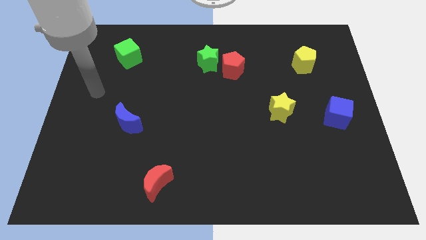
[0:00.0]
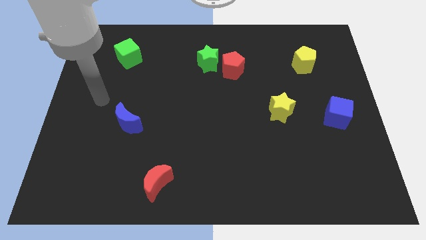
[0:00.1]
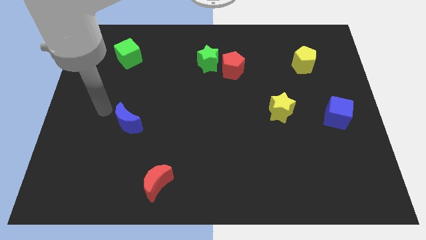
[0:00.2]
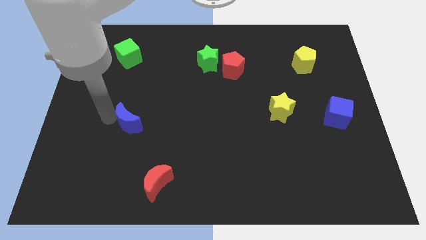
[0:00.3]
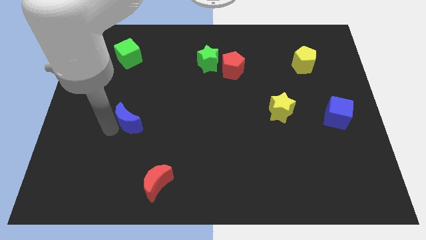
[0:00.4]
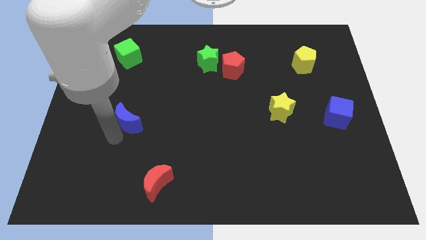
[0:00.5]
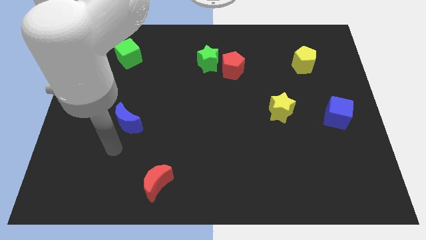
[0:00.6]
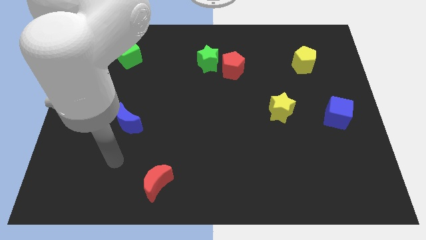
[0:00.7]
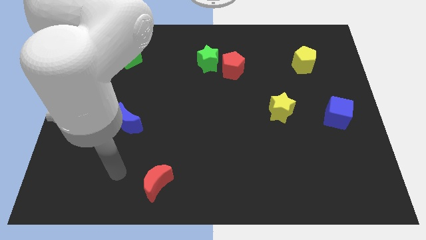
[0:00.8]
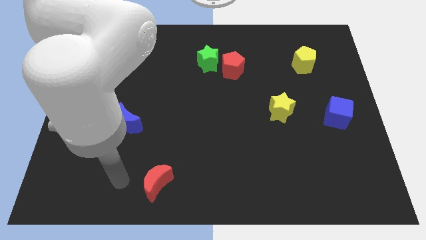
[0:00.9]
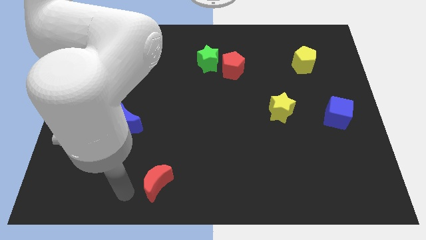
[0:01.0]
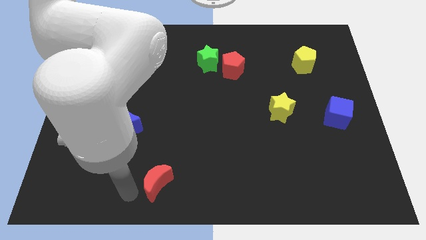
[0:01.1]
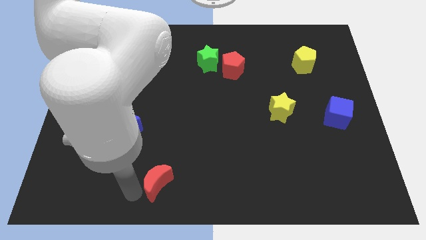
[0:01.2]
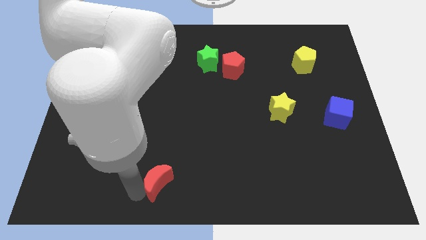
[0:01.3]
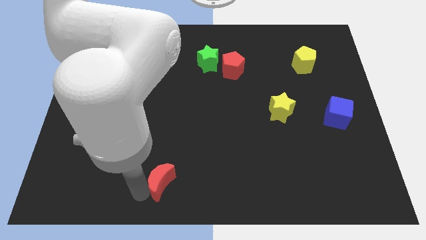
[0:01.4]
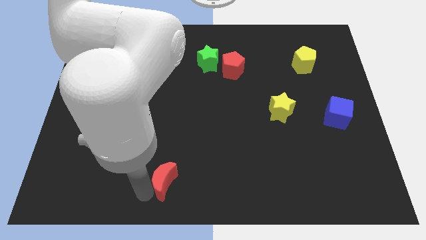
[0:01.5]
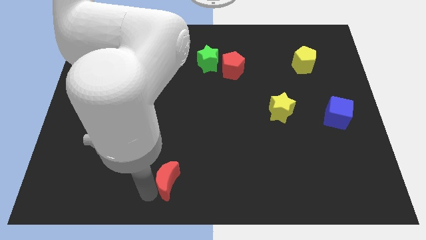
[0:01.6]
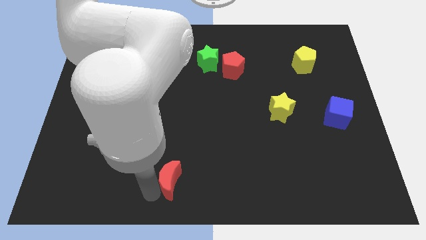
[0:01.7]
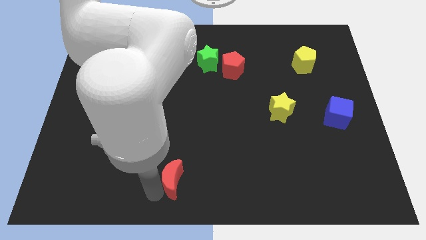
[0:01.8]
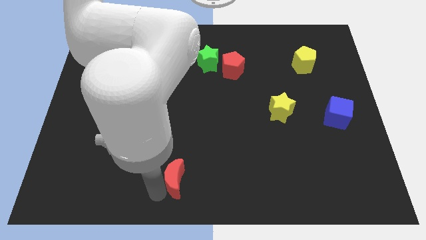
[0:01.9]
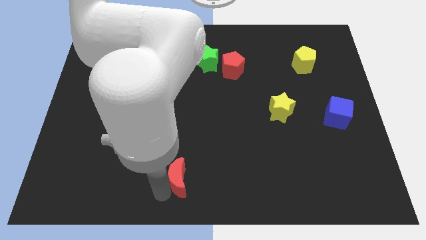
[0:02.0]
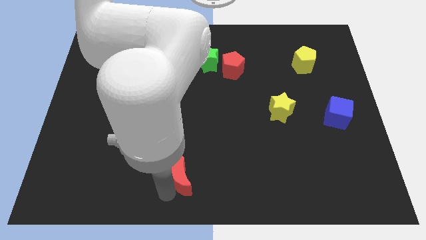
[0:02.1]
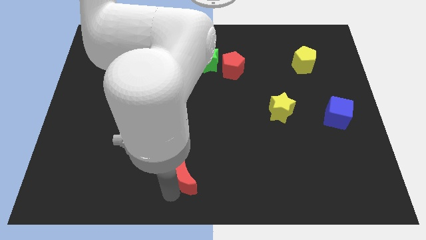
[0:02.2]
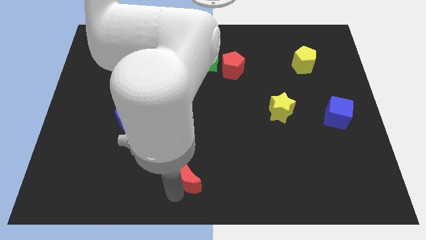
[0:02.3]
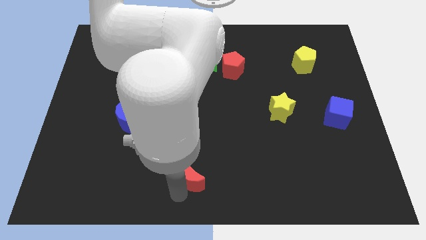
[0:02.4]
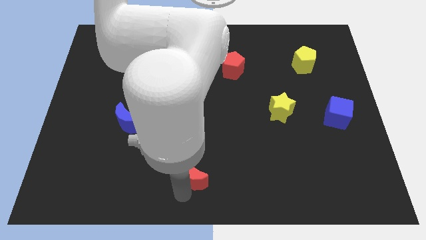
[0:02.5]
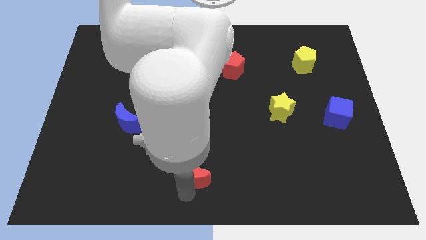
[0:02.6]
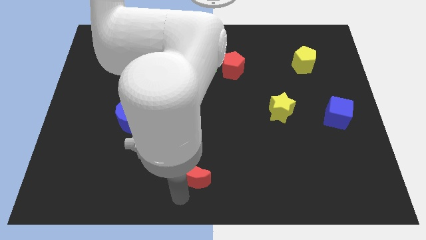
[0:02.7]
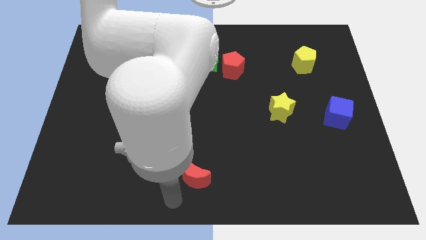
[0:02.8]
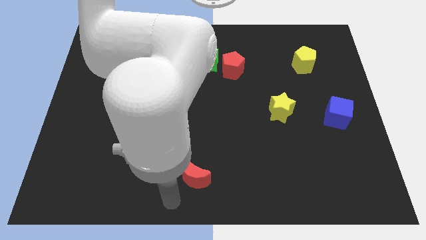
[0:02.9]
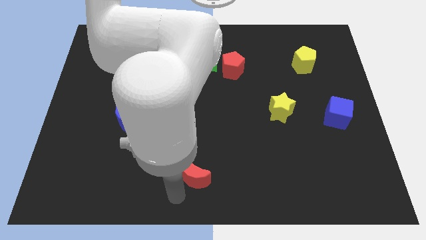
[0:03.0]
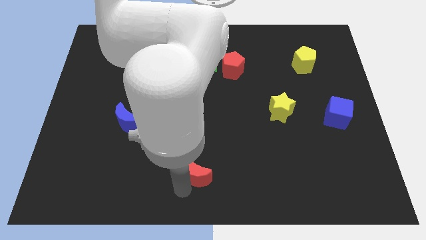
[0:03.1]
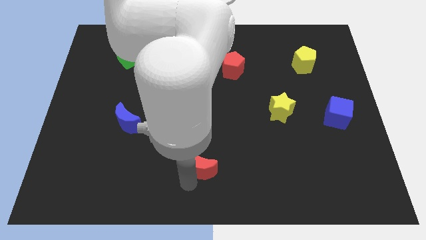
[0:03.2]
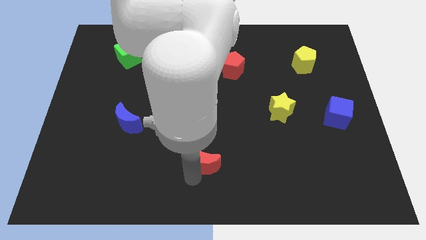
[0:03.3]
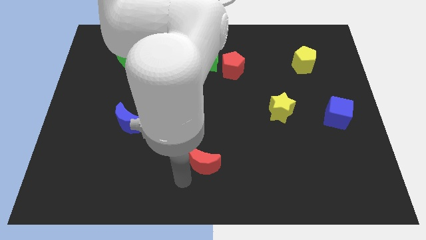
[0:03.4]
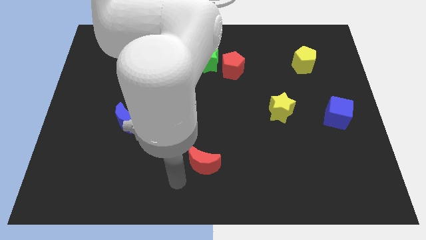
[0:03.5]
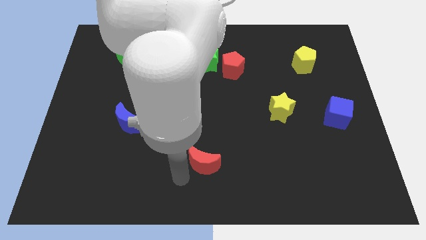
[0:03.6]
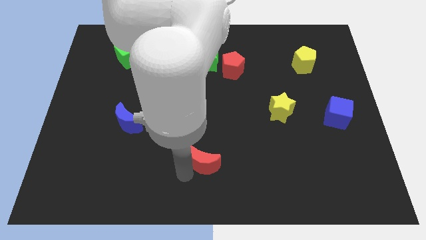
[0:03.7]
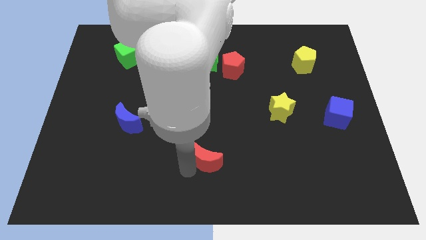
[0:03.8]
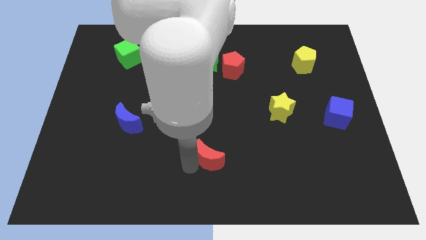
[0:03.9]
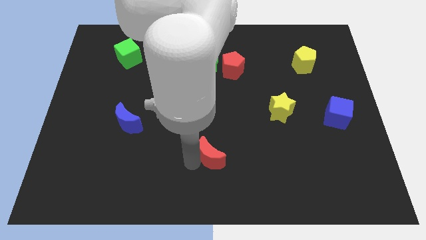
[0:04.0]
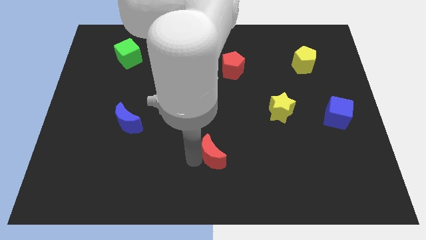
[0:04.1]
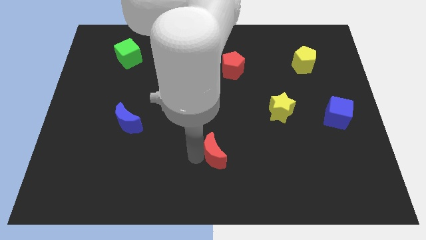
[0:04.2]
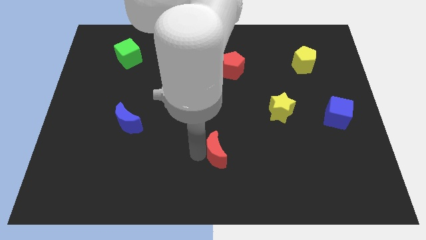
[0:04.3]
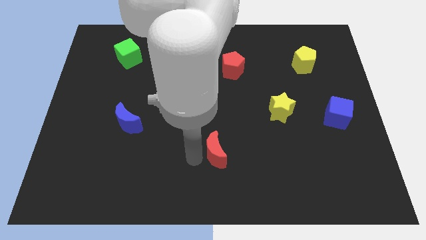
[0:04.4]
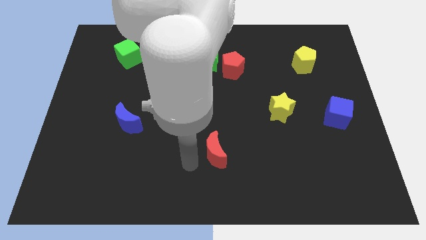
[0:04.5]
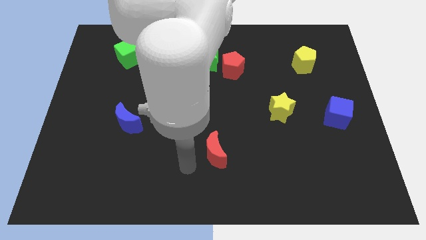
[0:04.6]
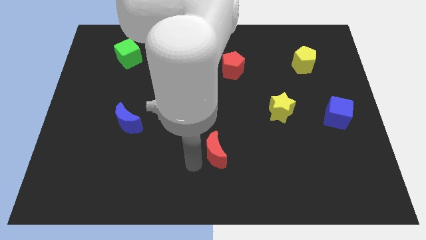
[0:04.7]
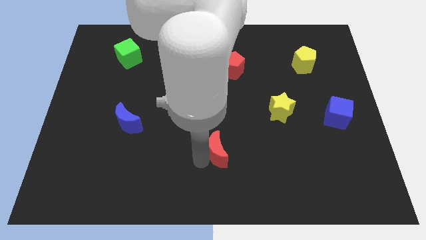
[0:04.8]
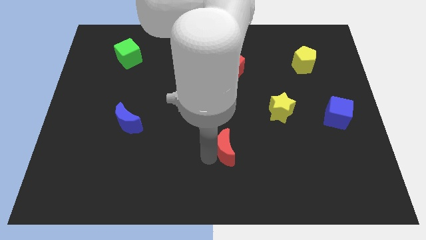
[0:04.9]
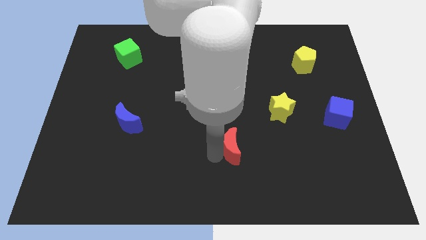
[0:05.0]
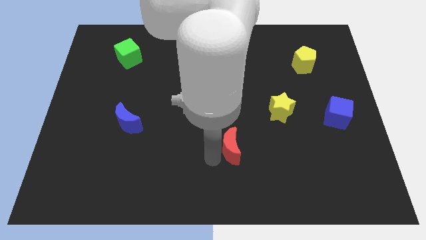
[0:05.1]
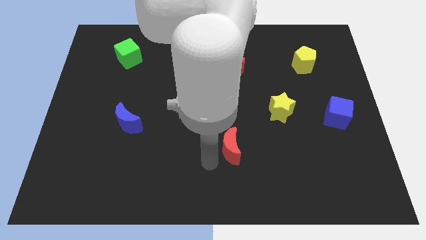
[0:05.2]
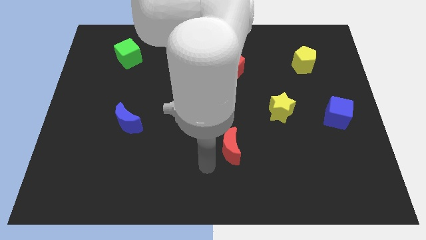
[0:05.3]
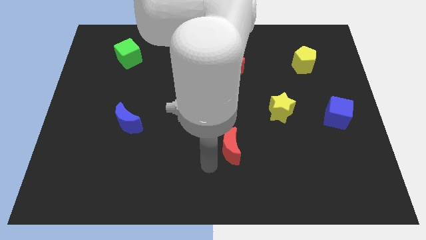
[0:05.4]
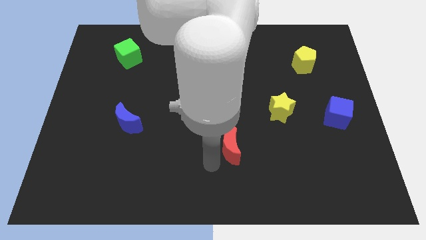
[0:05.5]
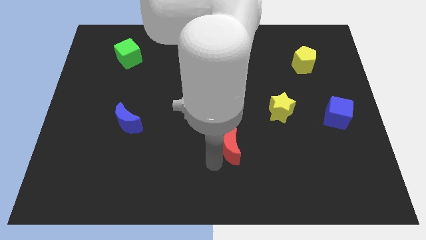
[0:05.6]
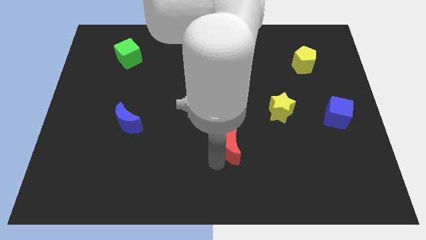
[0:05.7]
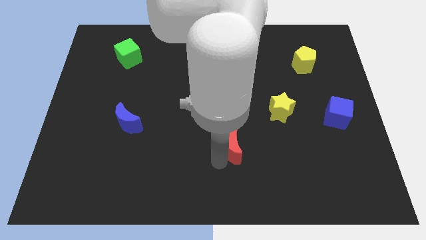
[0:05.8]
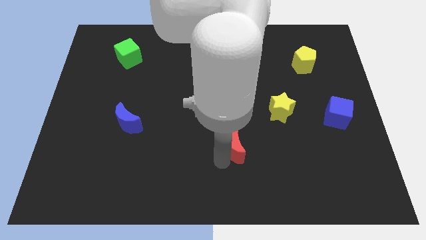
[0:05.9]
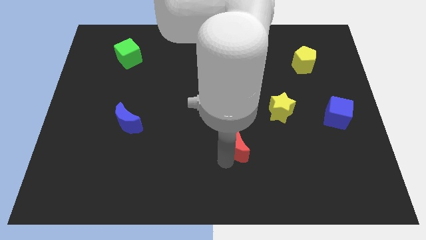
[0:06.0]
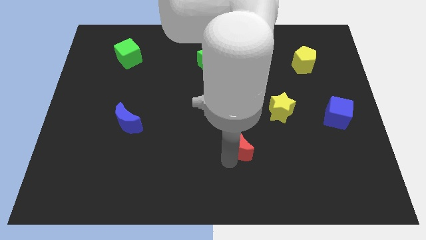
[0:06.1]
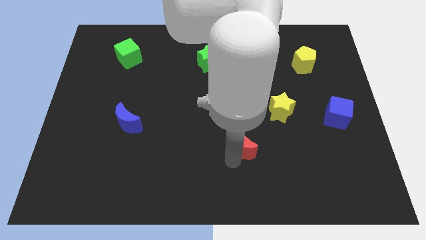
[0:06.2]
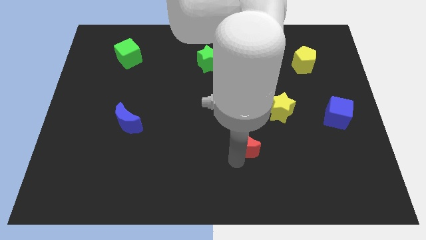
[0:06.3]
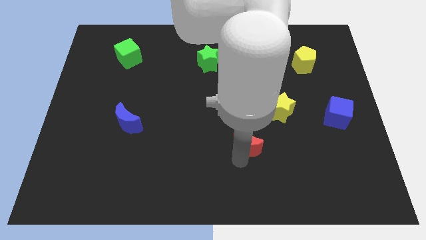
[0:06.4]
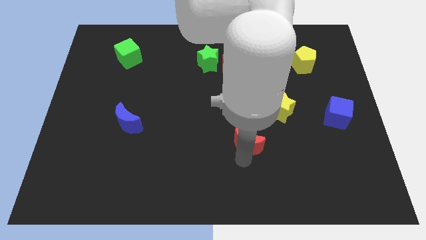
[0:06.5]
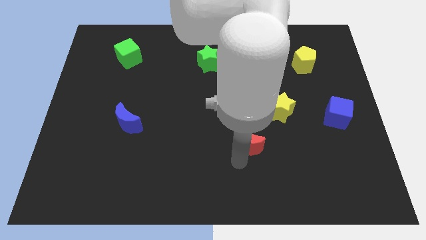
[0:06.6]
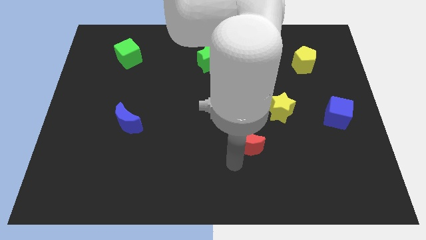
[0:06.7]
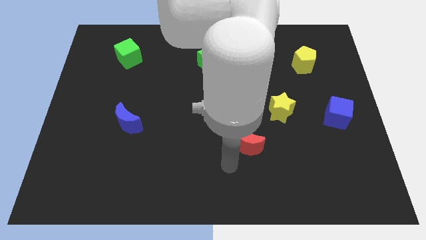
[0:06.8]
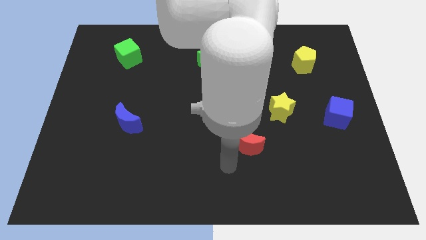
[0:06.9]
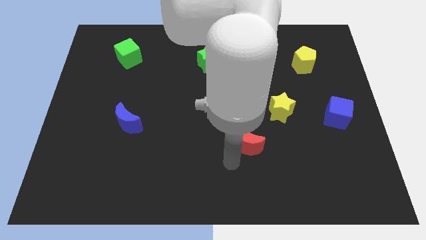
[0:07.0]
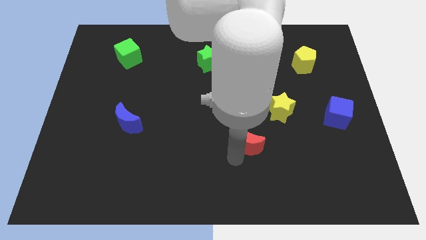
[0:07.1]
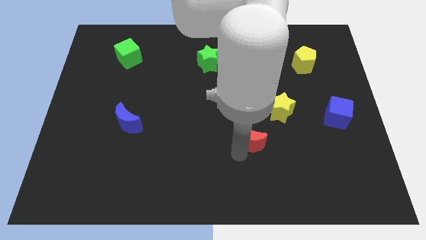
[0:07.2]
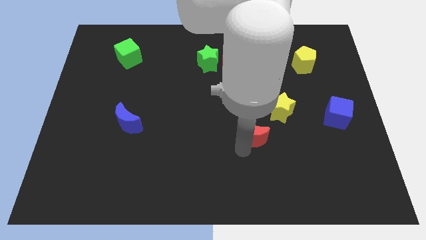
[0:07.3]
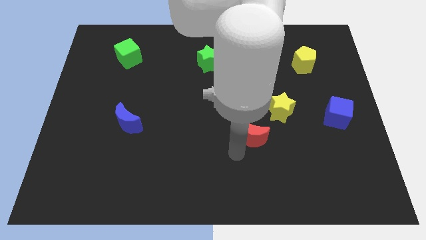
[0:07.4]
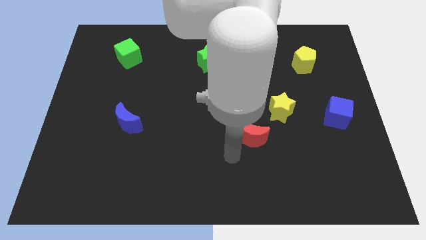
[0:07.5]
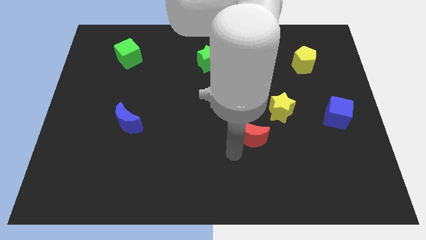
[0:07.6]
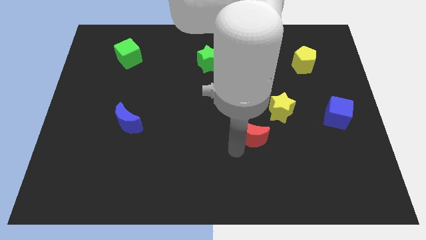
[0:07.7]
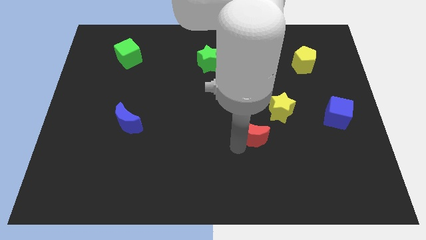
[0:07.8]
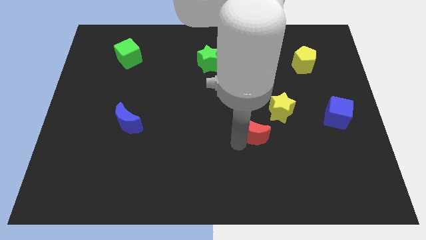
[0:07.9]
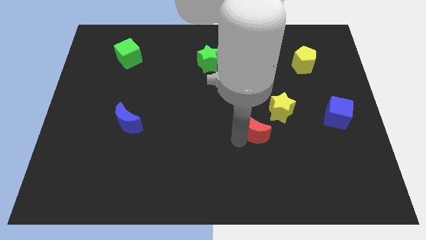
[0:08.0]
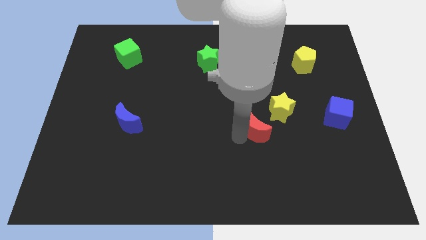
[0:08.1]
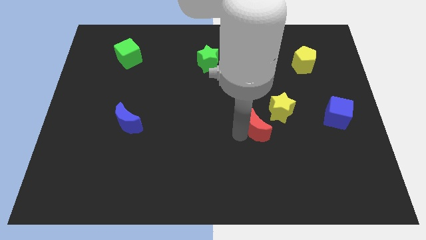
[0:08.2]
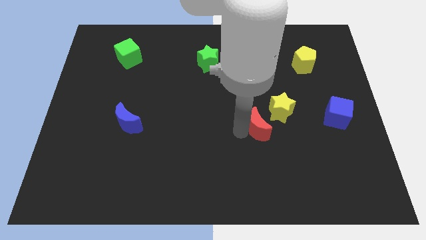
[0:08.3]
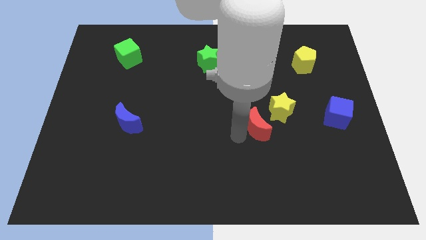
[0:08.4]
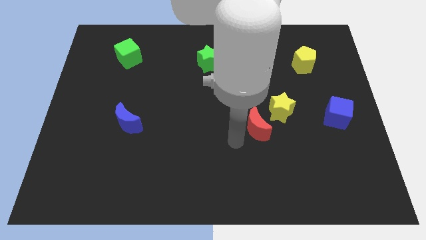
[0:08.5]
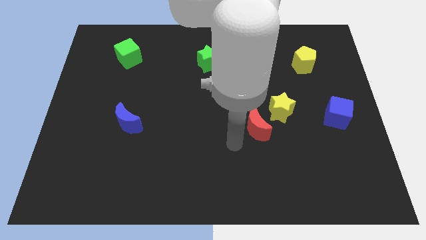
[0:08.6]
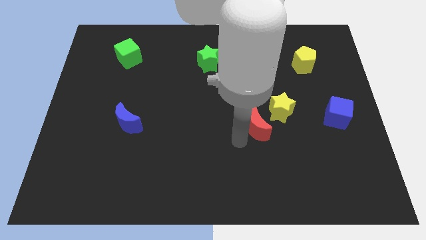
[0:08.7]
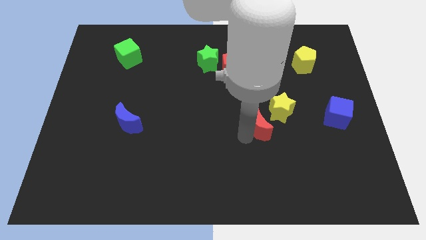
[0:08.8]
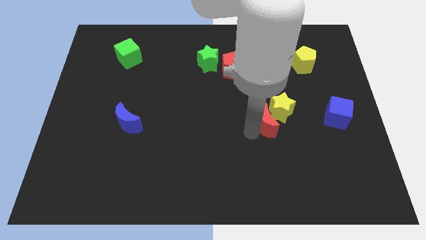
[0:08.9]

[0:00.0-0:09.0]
put the red moon close to the yellow star
